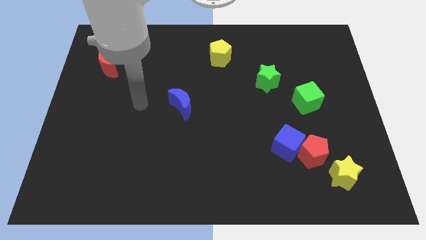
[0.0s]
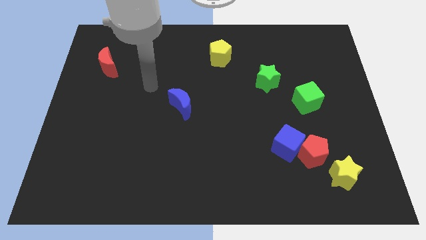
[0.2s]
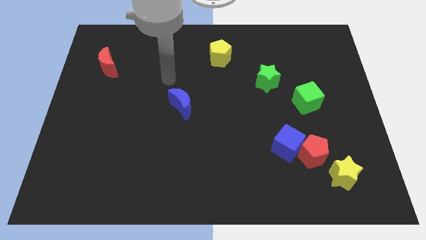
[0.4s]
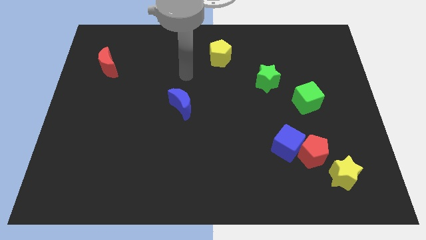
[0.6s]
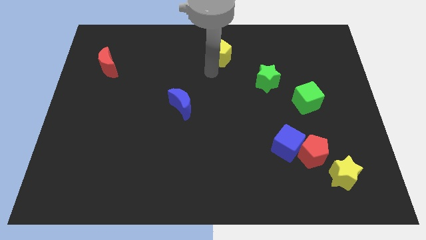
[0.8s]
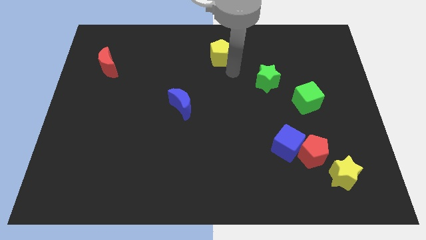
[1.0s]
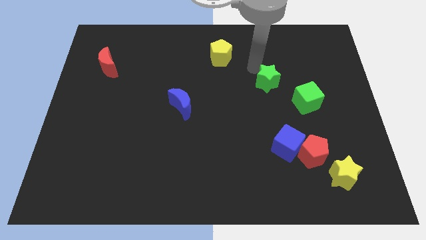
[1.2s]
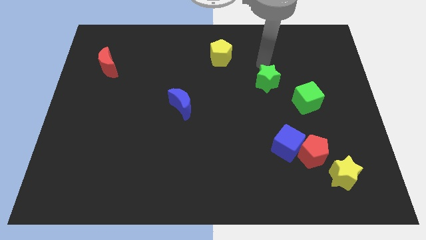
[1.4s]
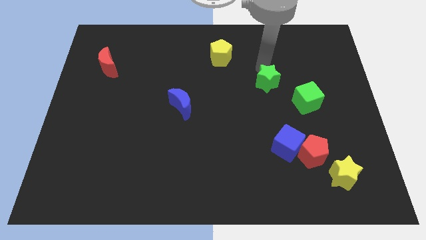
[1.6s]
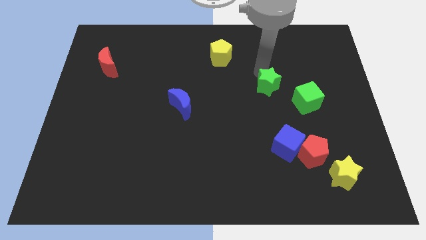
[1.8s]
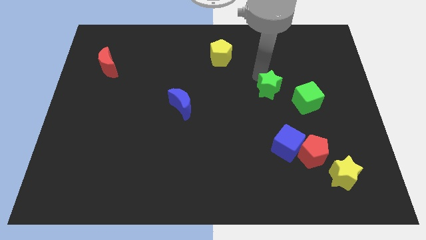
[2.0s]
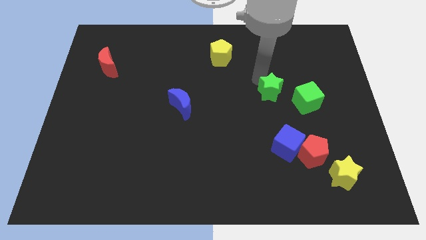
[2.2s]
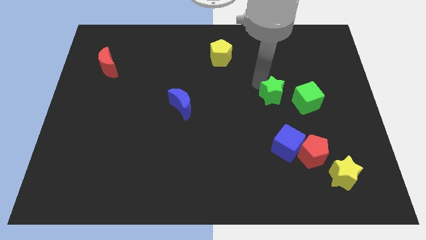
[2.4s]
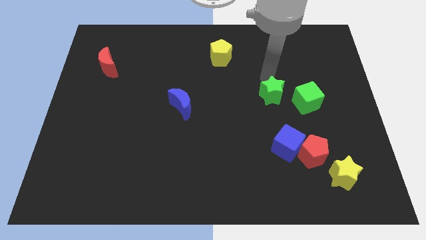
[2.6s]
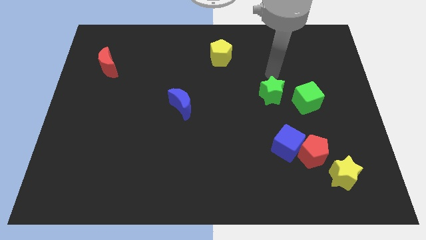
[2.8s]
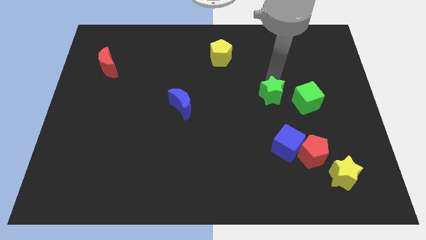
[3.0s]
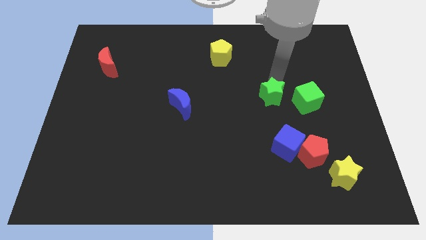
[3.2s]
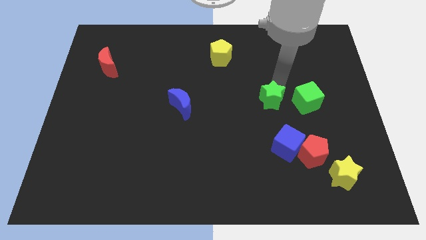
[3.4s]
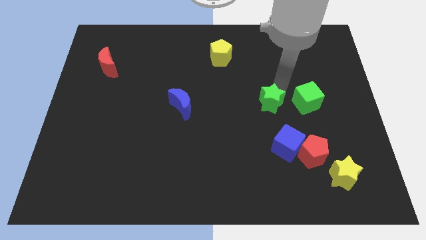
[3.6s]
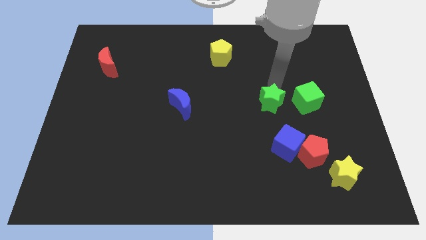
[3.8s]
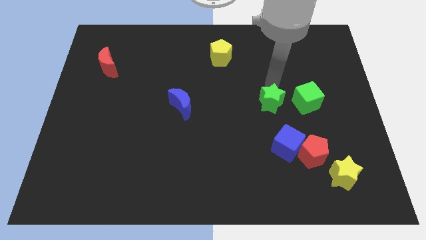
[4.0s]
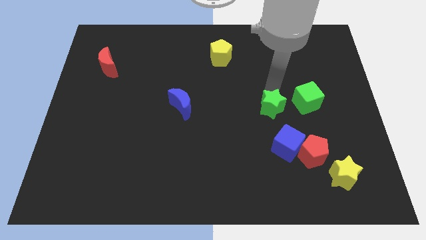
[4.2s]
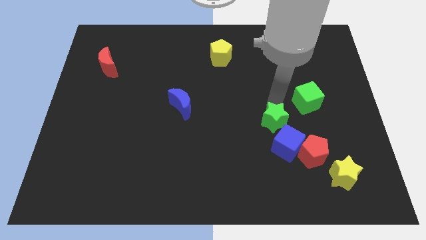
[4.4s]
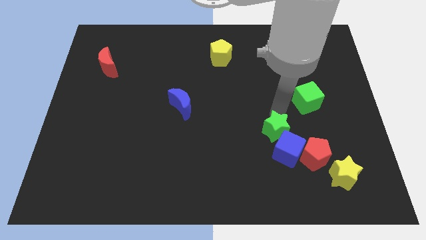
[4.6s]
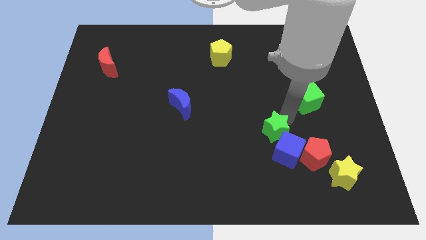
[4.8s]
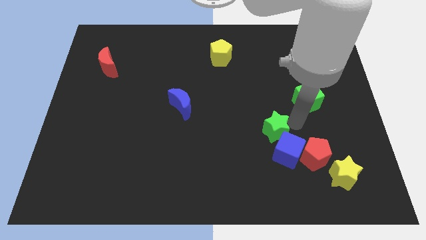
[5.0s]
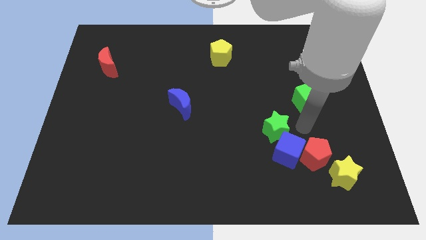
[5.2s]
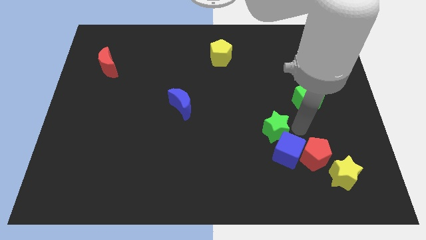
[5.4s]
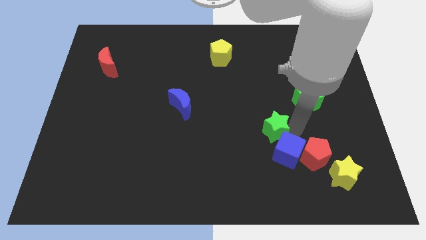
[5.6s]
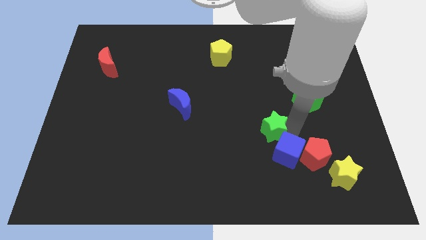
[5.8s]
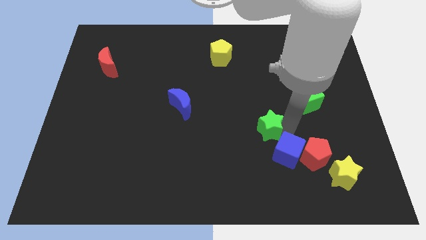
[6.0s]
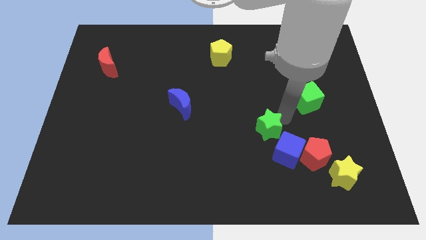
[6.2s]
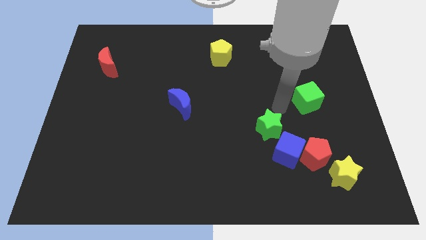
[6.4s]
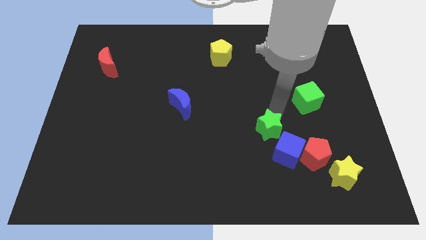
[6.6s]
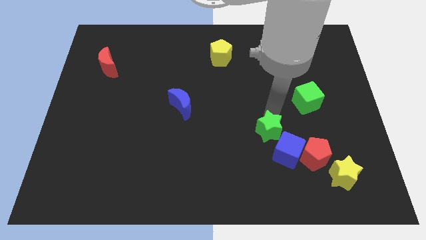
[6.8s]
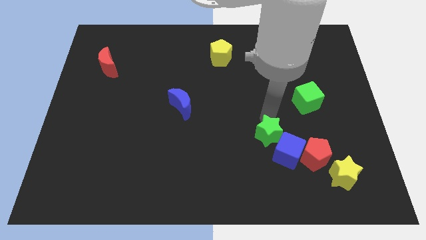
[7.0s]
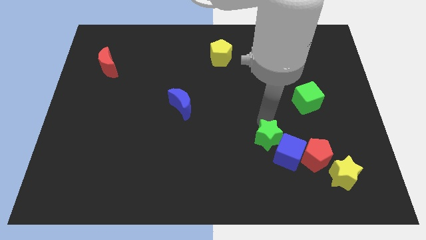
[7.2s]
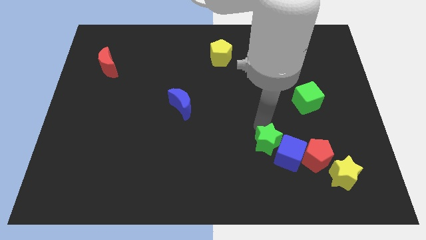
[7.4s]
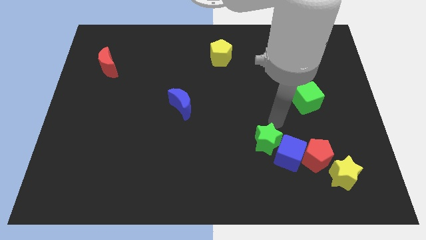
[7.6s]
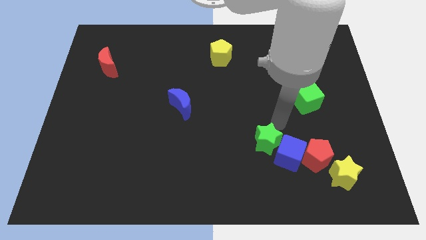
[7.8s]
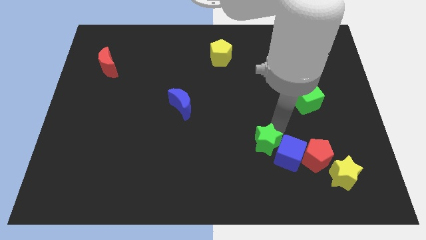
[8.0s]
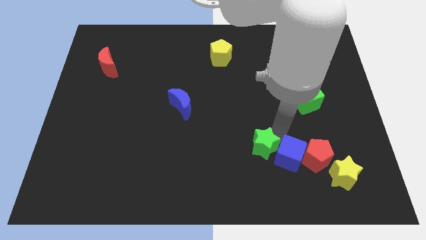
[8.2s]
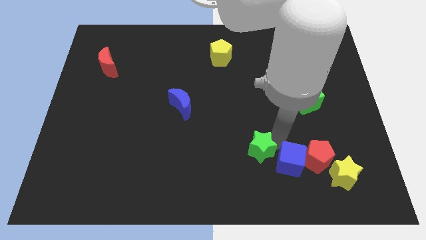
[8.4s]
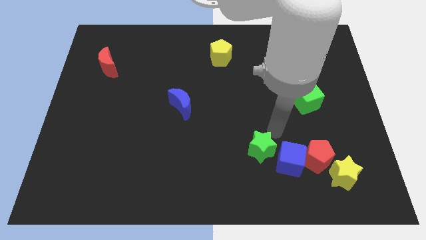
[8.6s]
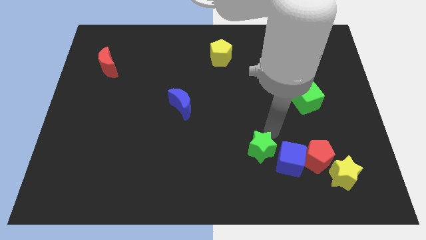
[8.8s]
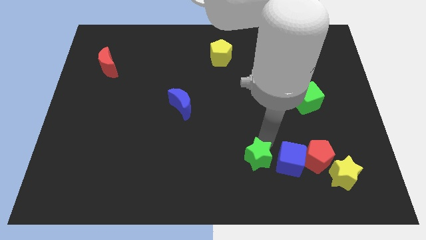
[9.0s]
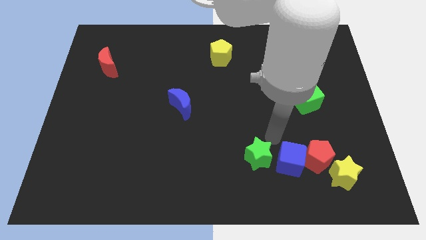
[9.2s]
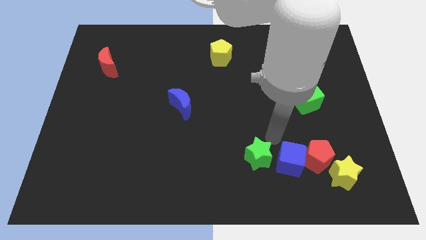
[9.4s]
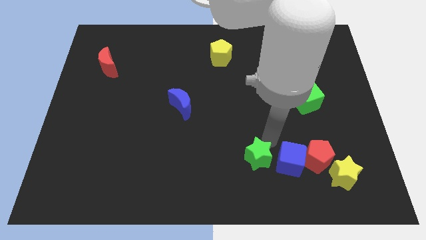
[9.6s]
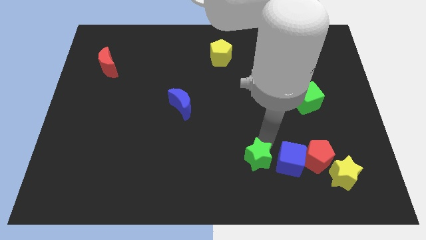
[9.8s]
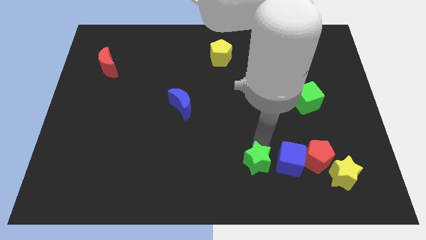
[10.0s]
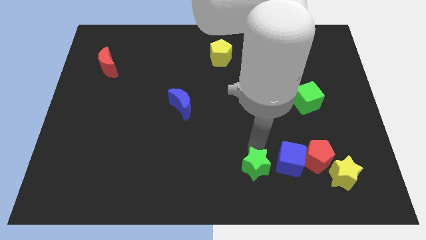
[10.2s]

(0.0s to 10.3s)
push the green star to the bottom

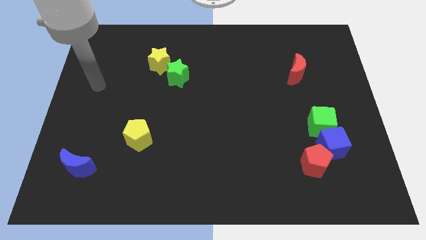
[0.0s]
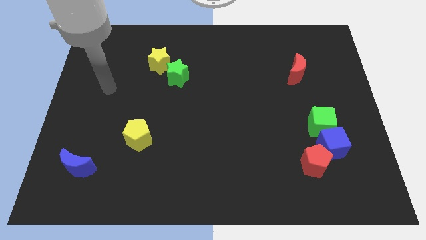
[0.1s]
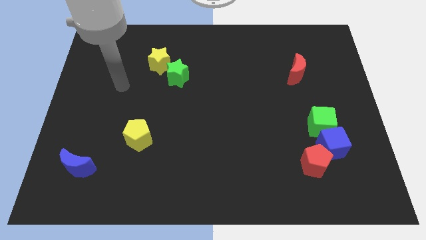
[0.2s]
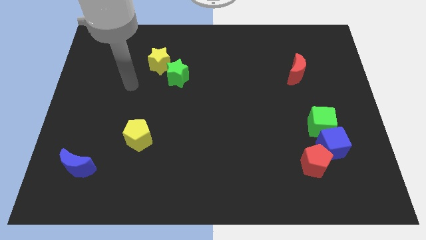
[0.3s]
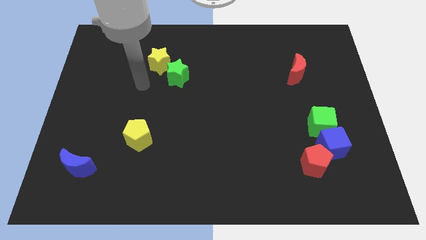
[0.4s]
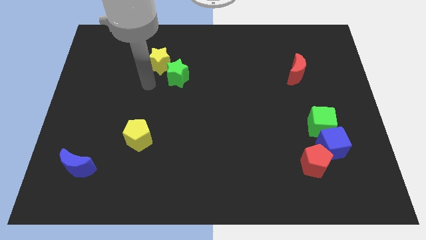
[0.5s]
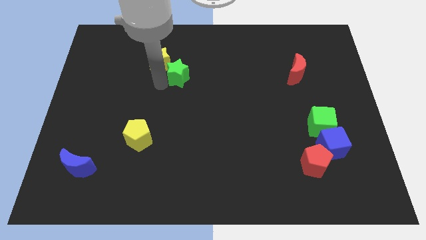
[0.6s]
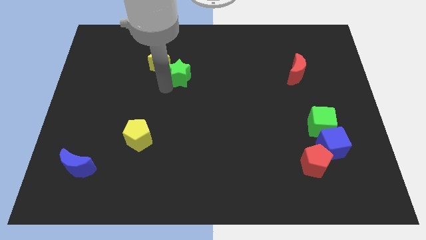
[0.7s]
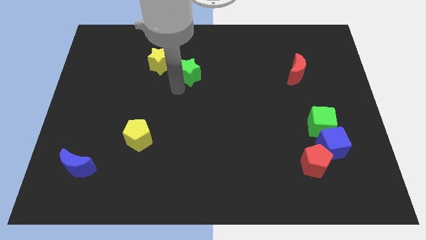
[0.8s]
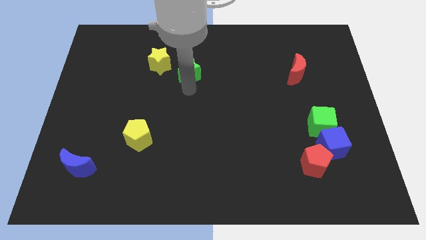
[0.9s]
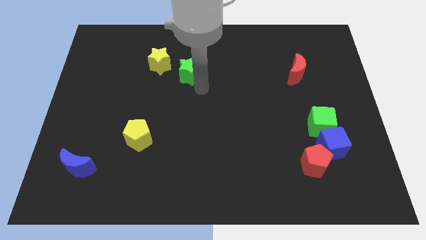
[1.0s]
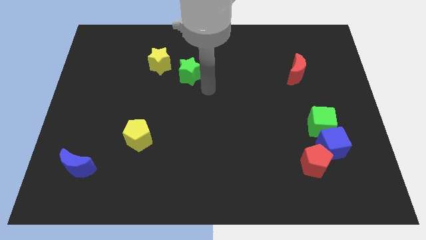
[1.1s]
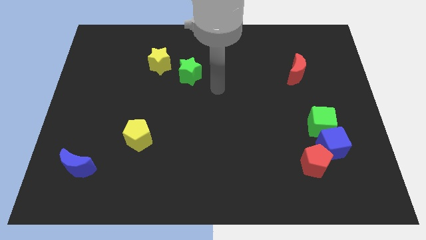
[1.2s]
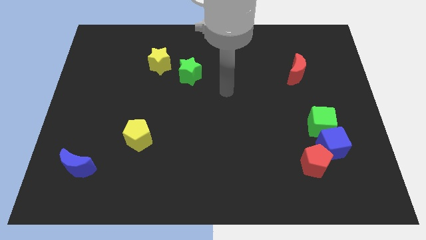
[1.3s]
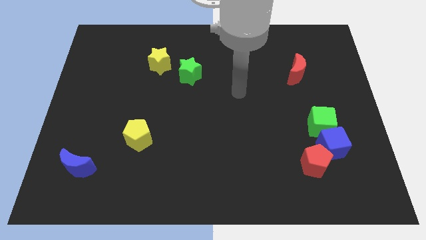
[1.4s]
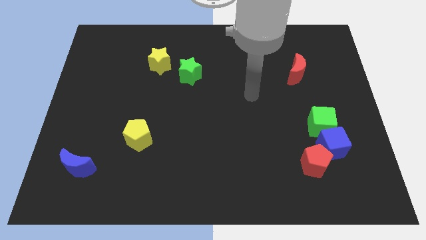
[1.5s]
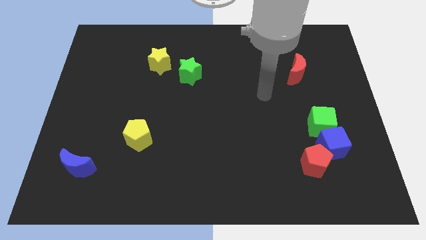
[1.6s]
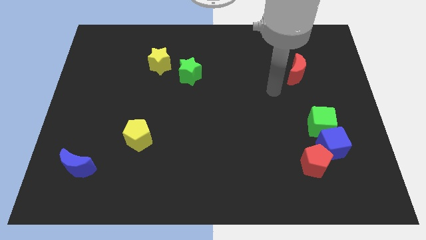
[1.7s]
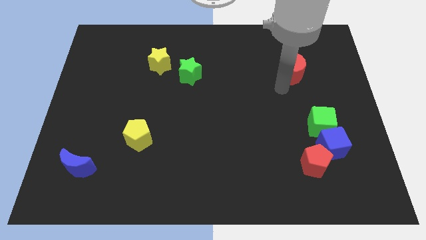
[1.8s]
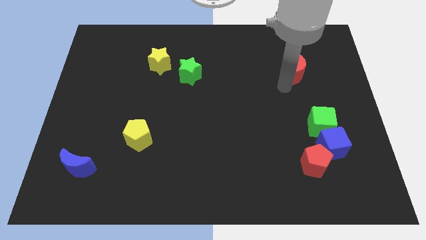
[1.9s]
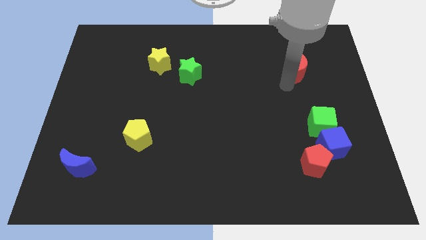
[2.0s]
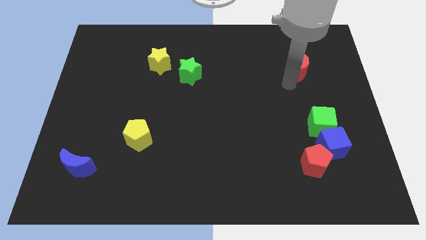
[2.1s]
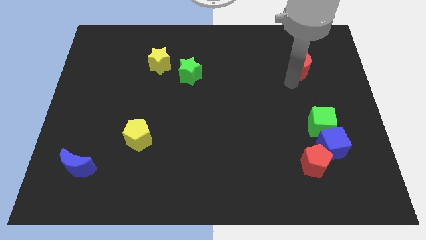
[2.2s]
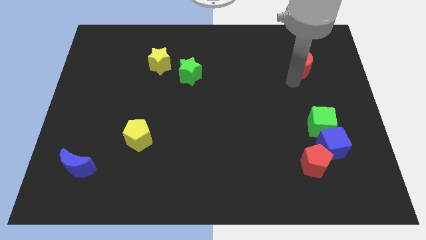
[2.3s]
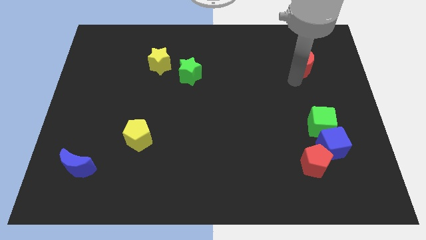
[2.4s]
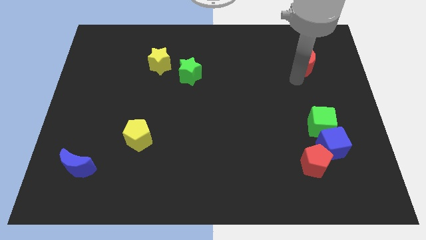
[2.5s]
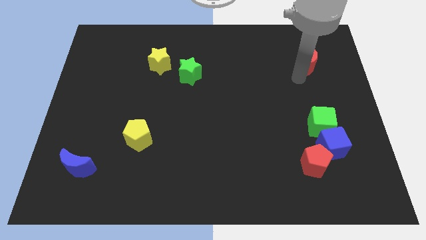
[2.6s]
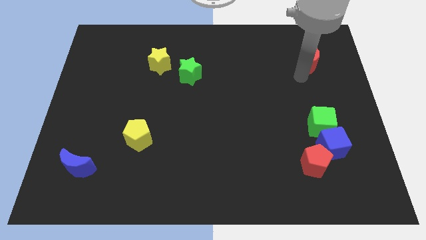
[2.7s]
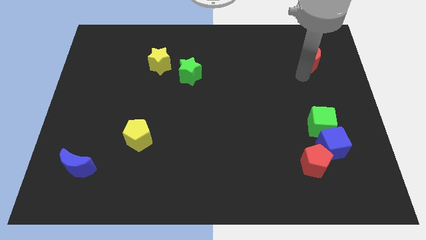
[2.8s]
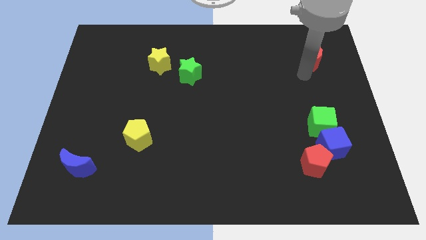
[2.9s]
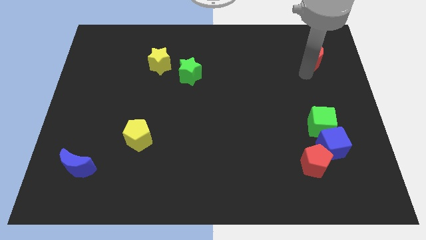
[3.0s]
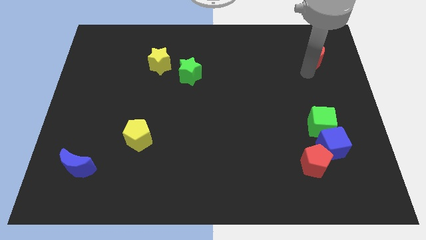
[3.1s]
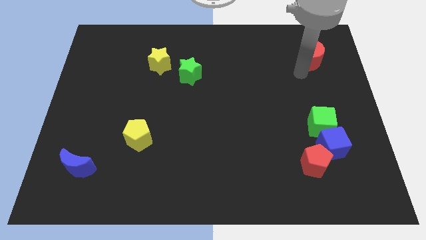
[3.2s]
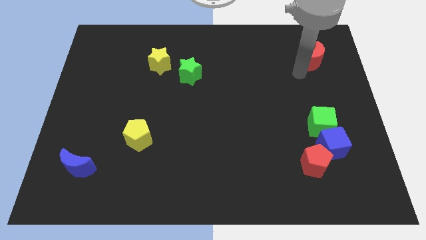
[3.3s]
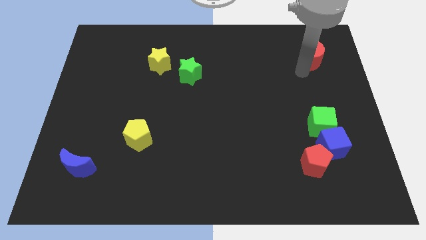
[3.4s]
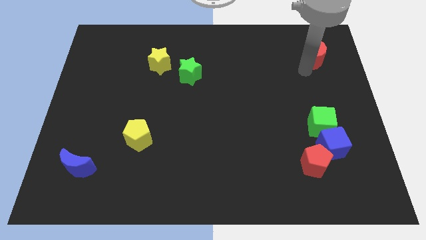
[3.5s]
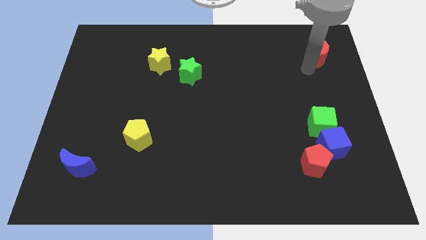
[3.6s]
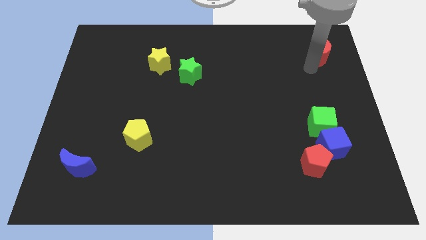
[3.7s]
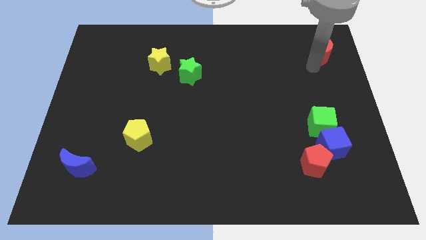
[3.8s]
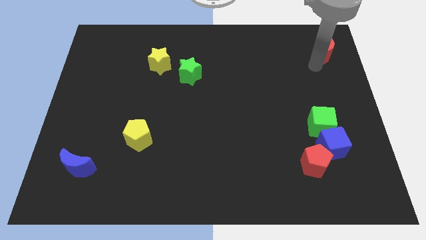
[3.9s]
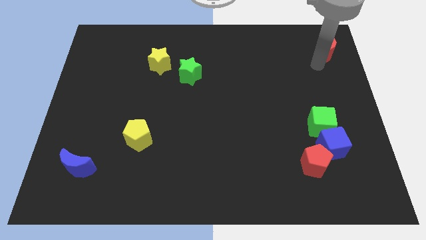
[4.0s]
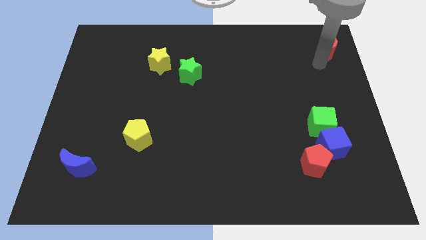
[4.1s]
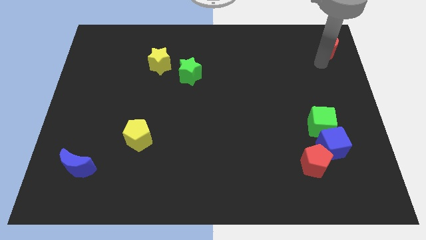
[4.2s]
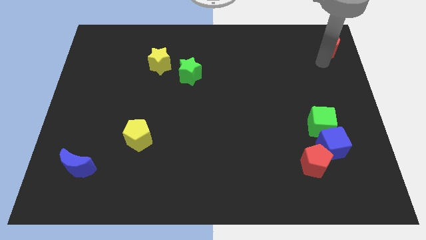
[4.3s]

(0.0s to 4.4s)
push the red moon to the upper right corner
